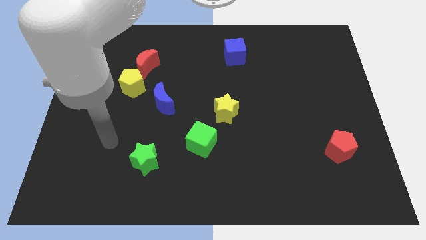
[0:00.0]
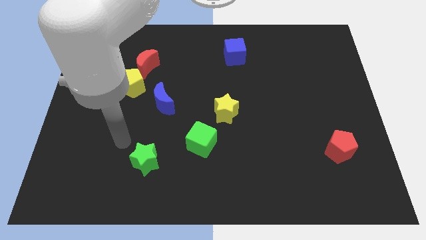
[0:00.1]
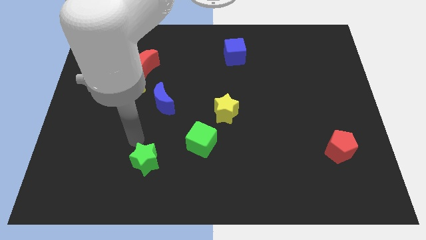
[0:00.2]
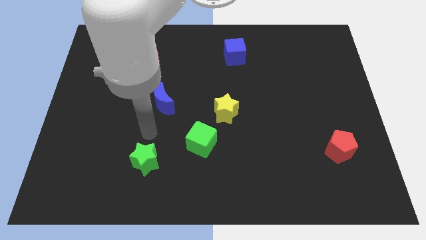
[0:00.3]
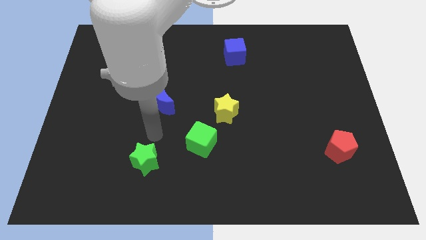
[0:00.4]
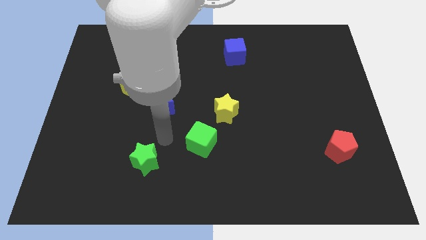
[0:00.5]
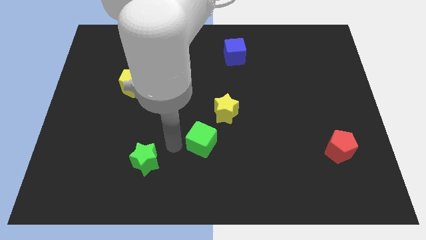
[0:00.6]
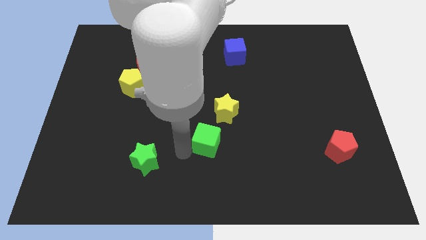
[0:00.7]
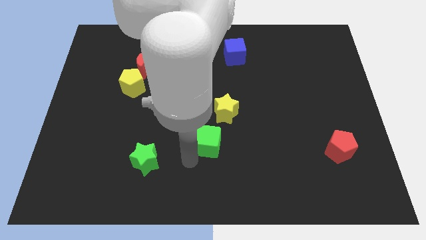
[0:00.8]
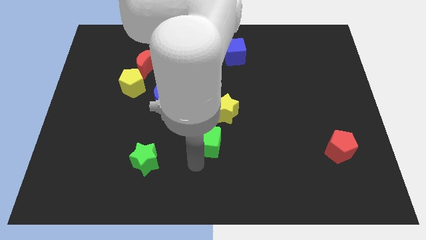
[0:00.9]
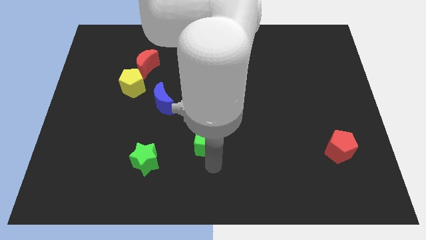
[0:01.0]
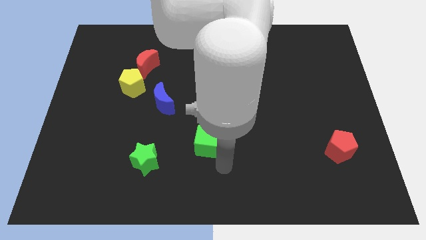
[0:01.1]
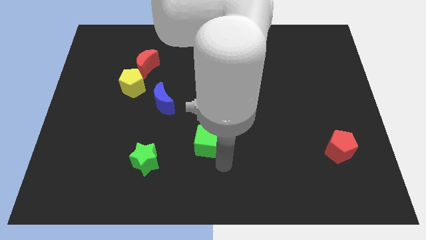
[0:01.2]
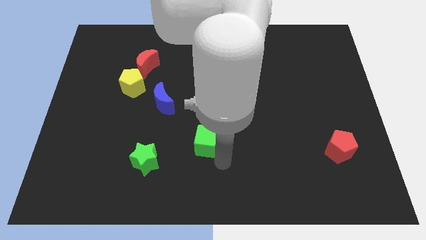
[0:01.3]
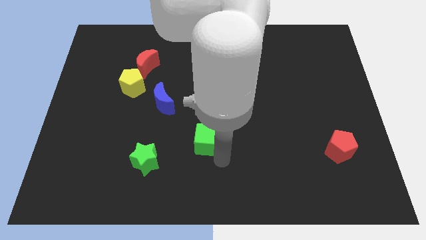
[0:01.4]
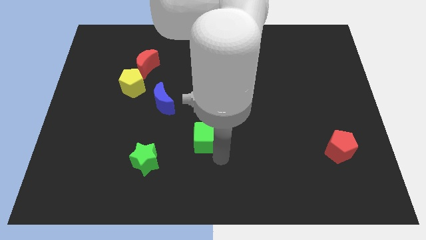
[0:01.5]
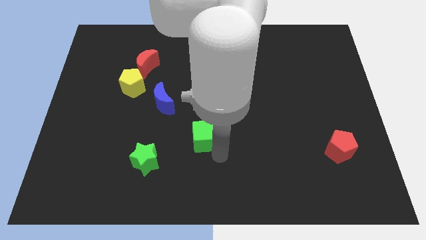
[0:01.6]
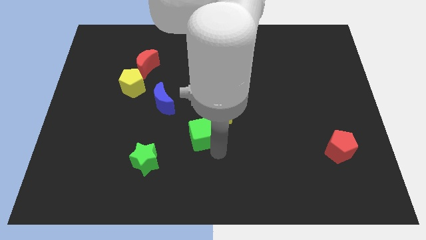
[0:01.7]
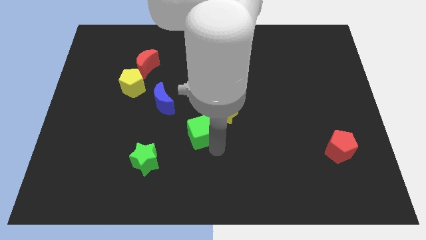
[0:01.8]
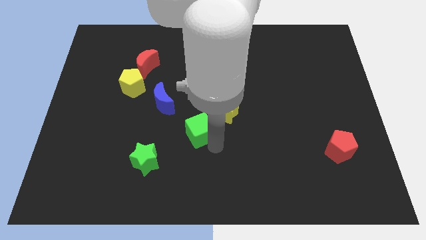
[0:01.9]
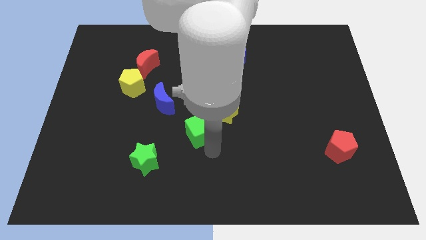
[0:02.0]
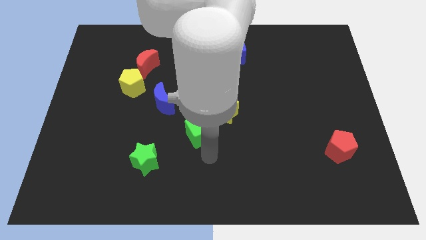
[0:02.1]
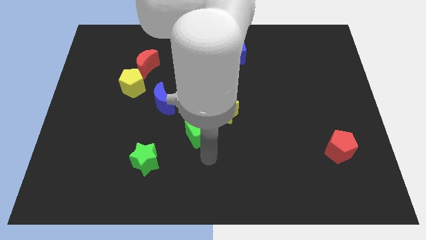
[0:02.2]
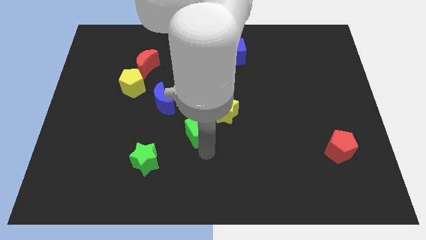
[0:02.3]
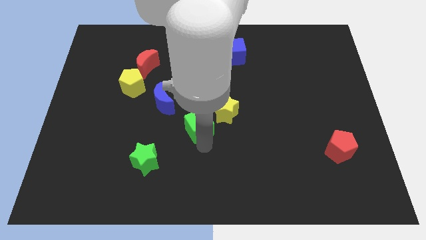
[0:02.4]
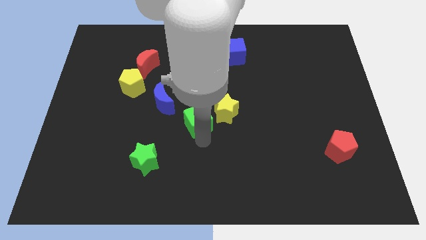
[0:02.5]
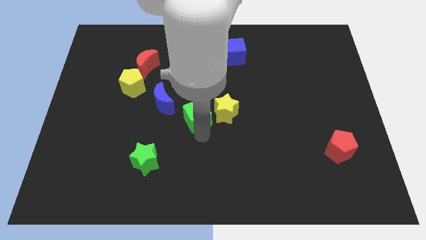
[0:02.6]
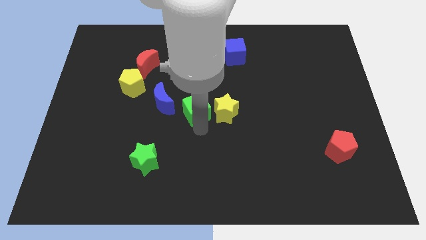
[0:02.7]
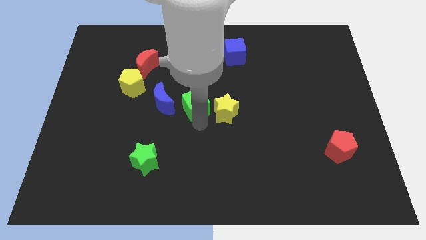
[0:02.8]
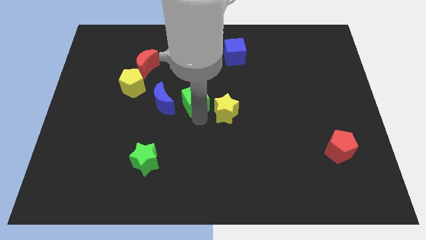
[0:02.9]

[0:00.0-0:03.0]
slide the green cube a bit upwards and then left

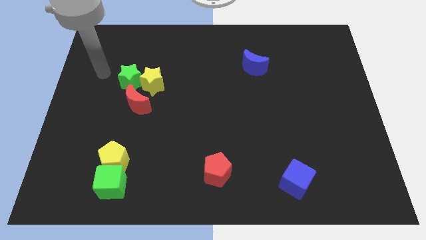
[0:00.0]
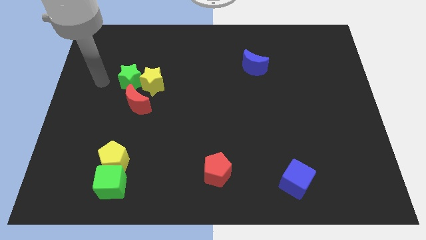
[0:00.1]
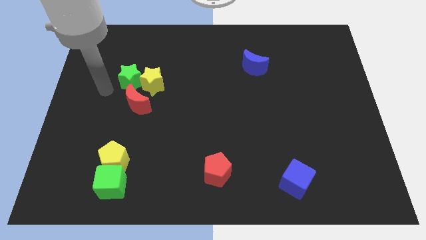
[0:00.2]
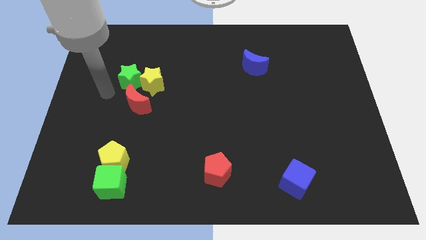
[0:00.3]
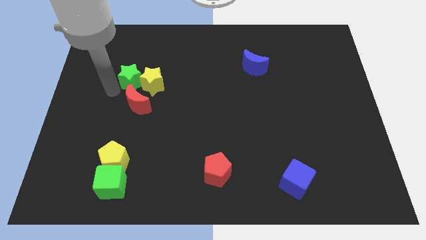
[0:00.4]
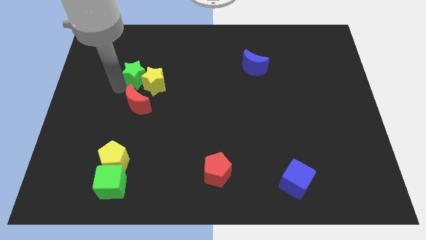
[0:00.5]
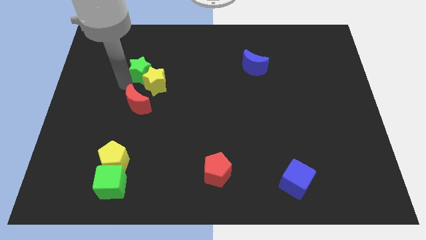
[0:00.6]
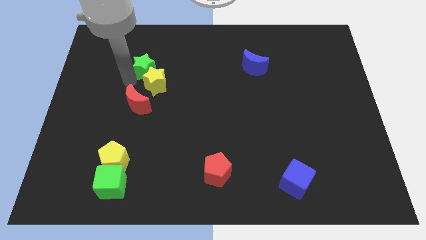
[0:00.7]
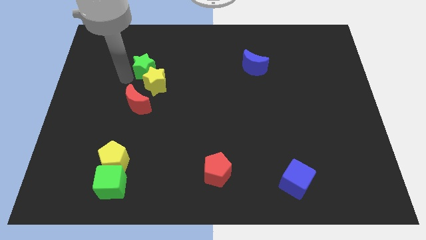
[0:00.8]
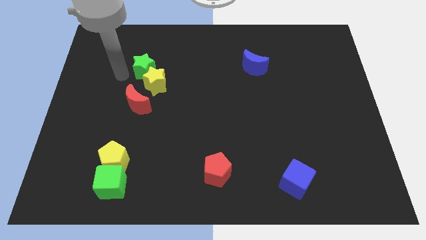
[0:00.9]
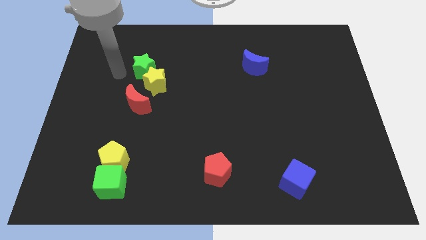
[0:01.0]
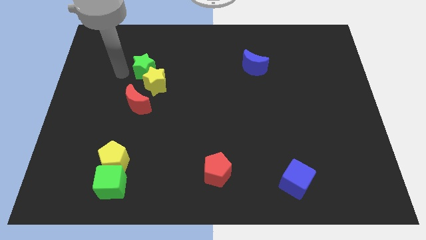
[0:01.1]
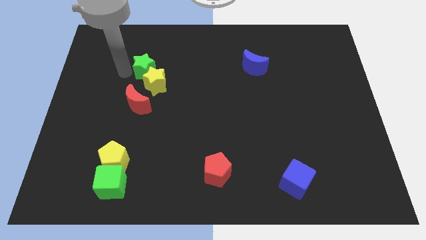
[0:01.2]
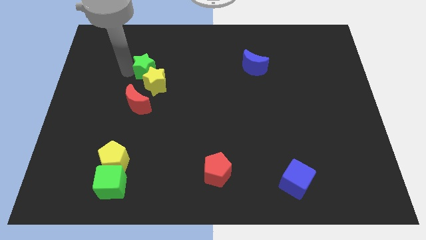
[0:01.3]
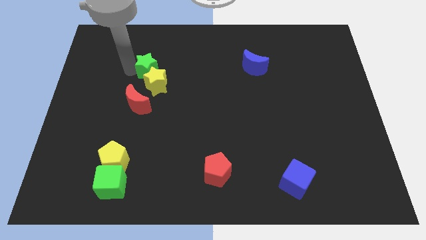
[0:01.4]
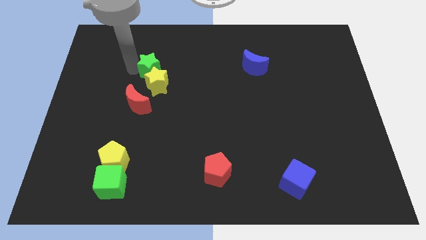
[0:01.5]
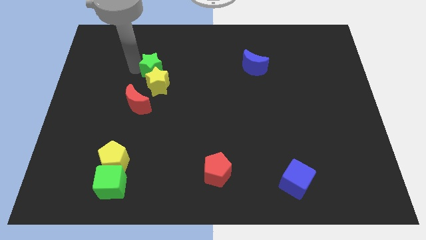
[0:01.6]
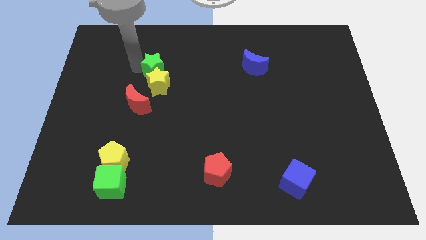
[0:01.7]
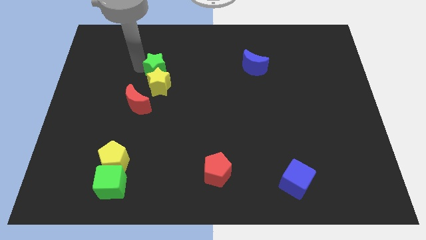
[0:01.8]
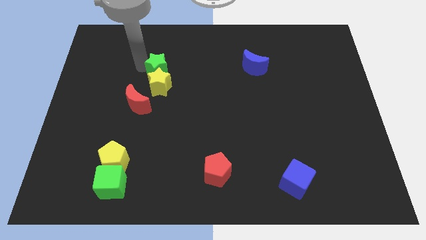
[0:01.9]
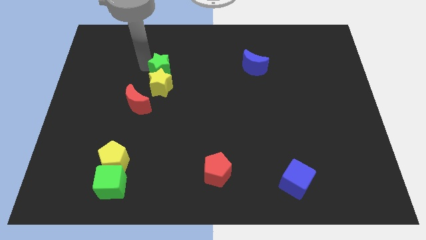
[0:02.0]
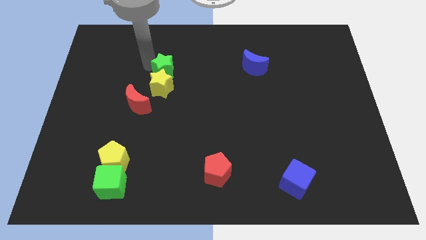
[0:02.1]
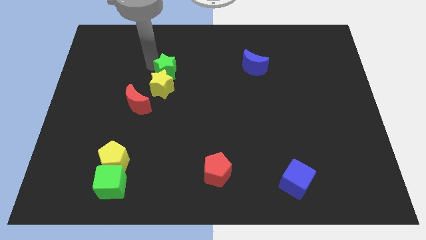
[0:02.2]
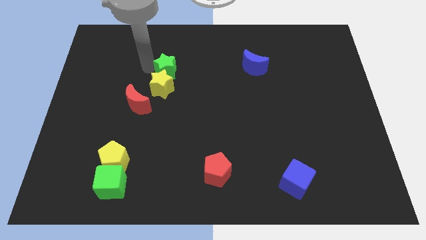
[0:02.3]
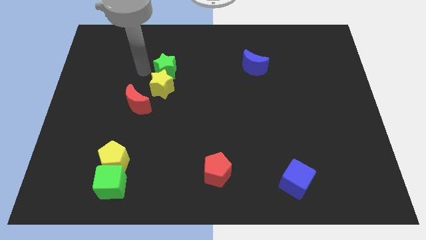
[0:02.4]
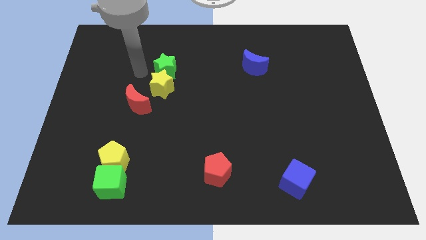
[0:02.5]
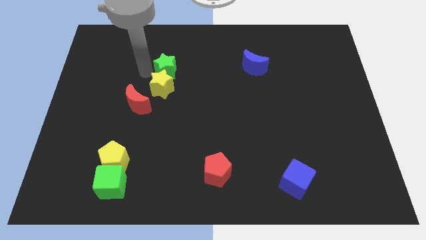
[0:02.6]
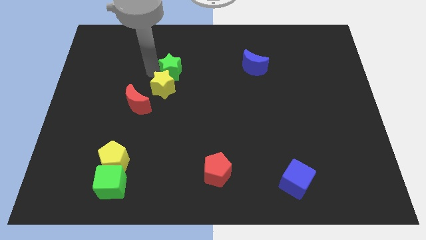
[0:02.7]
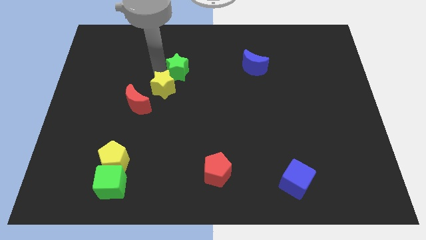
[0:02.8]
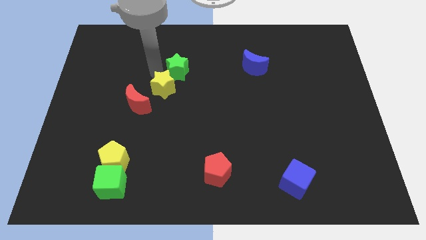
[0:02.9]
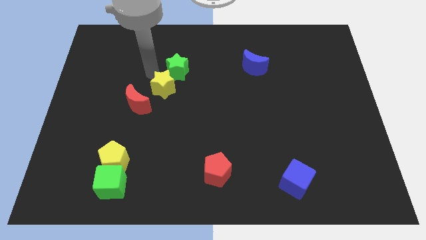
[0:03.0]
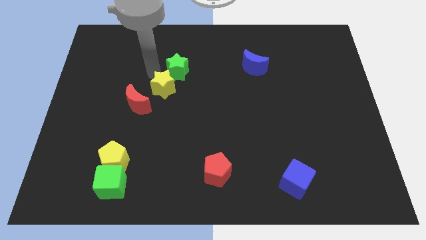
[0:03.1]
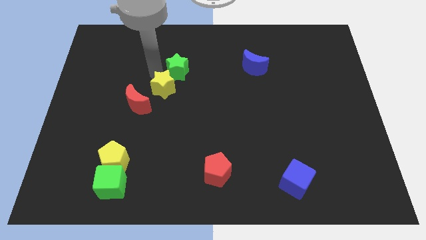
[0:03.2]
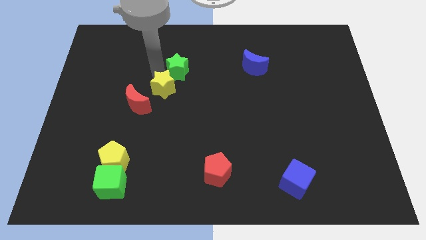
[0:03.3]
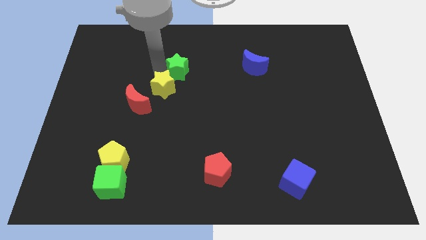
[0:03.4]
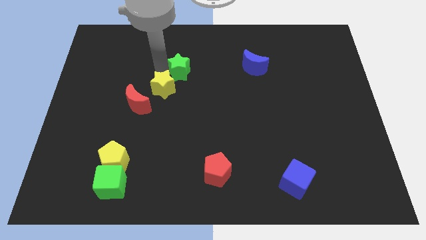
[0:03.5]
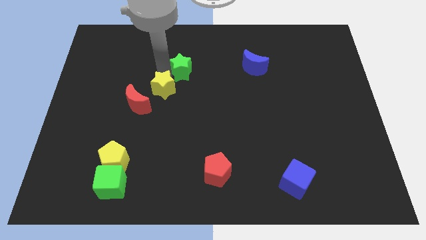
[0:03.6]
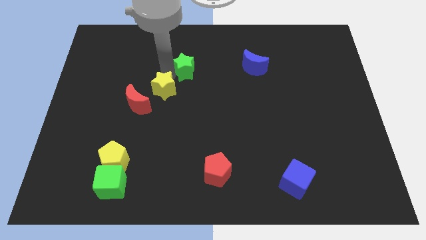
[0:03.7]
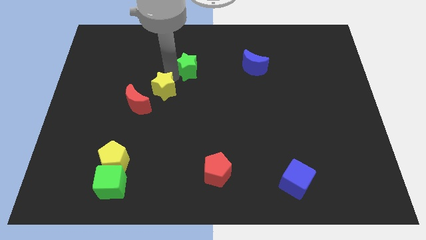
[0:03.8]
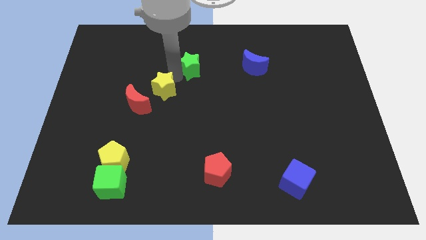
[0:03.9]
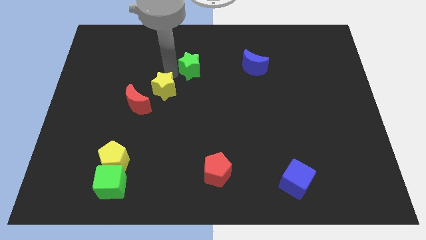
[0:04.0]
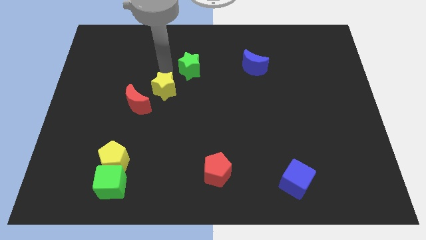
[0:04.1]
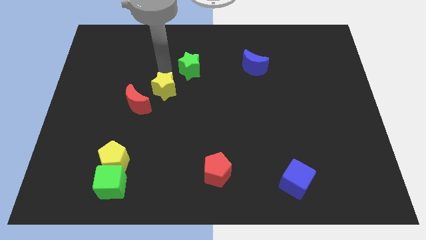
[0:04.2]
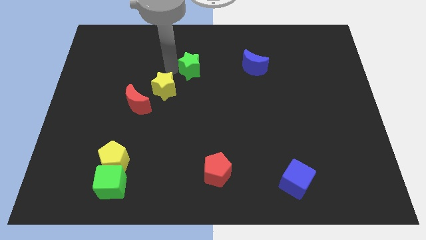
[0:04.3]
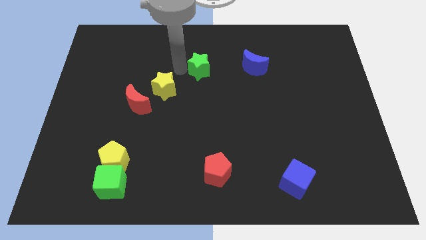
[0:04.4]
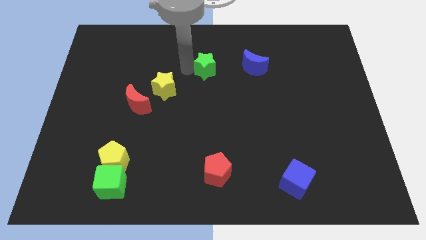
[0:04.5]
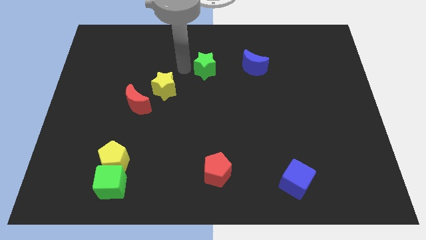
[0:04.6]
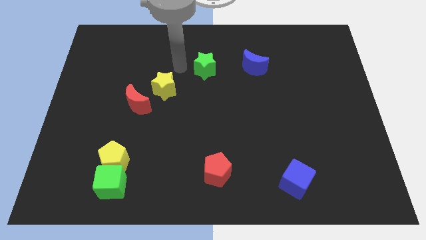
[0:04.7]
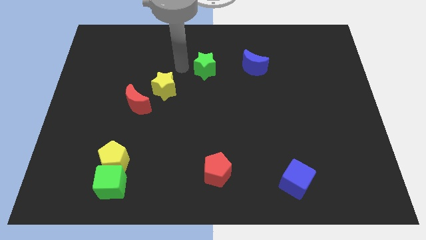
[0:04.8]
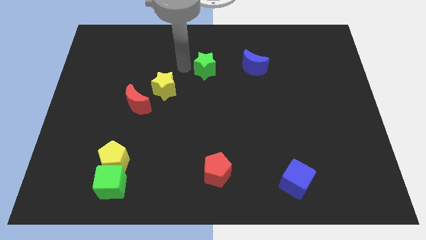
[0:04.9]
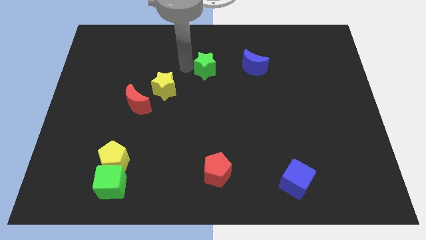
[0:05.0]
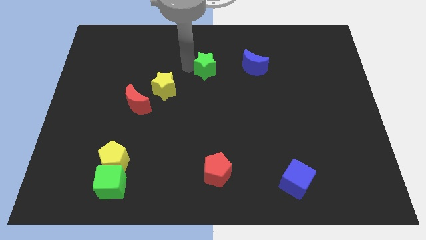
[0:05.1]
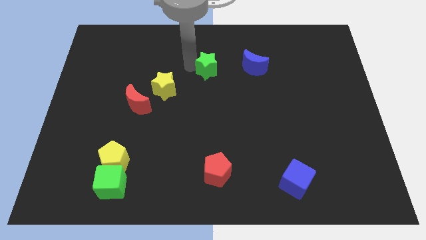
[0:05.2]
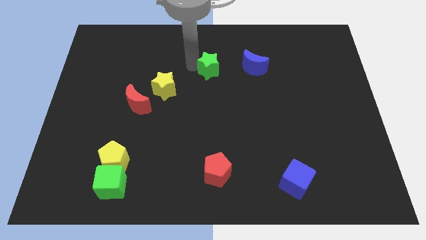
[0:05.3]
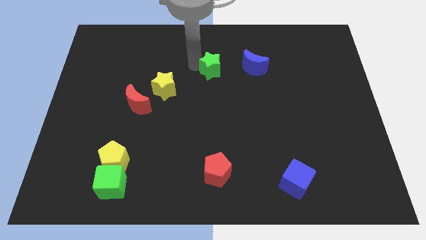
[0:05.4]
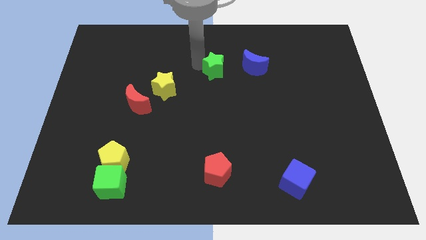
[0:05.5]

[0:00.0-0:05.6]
move the green star right
